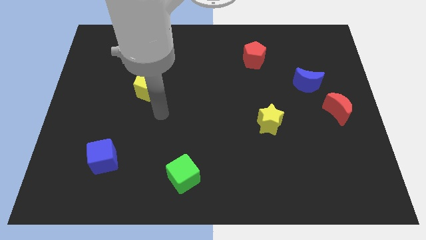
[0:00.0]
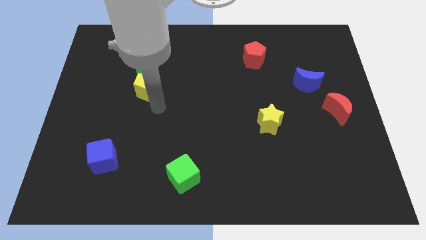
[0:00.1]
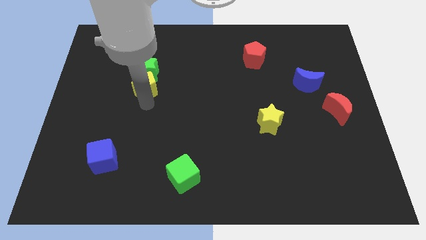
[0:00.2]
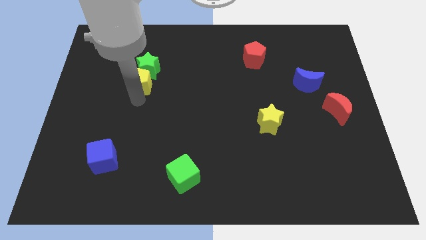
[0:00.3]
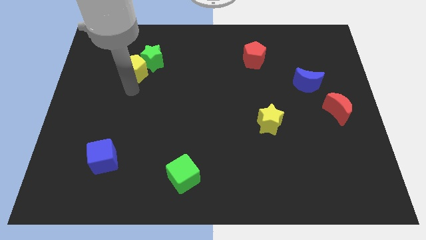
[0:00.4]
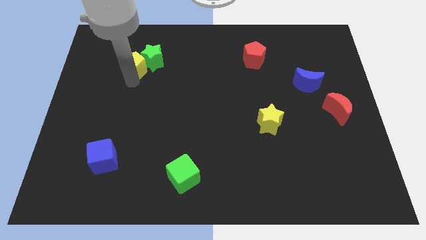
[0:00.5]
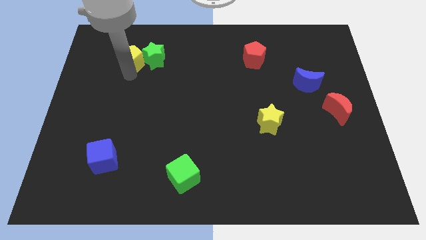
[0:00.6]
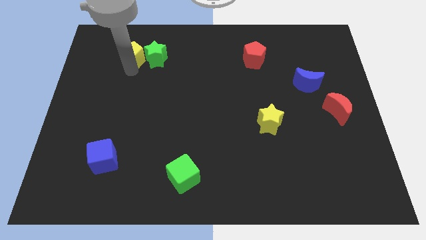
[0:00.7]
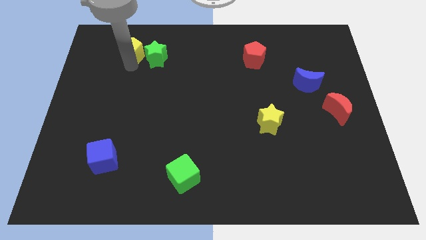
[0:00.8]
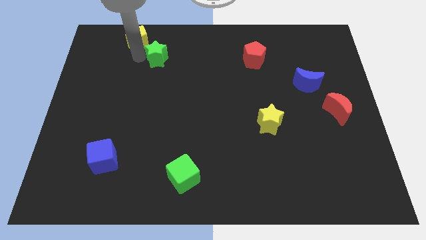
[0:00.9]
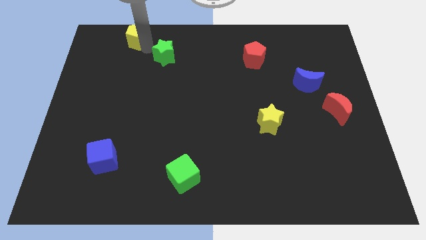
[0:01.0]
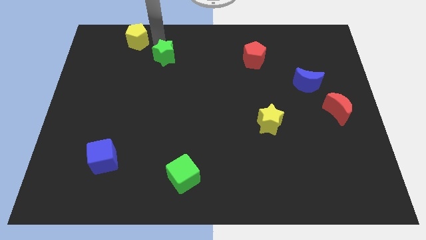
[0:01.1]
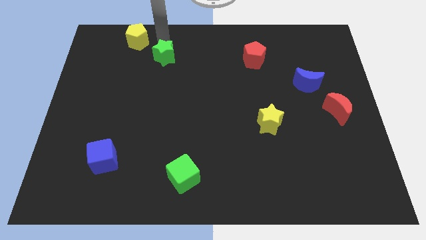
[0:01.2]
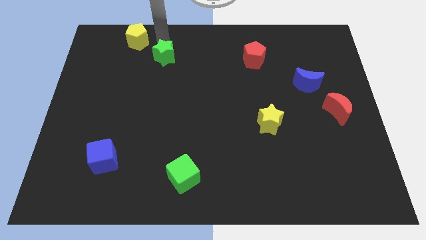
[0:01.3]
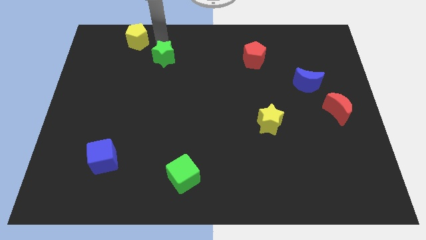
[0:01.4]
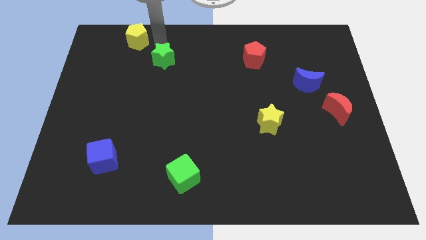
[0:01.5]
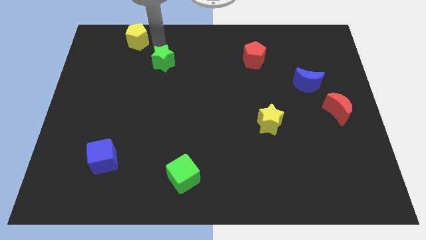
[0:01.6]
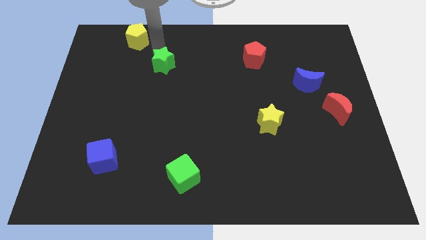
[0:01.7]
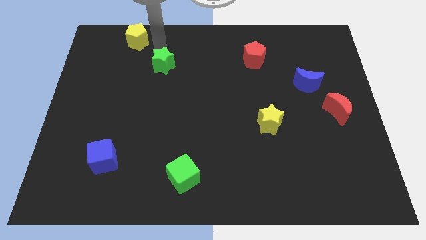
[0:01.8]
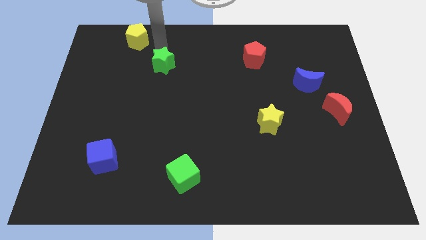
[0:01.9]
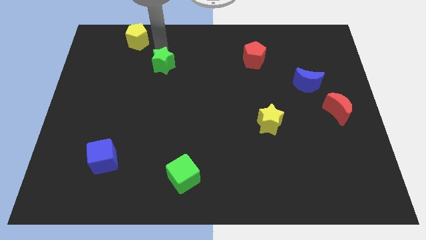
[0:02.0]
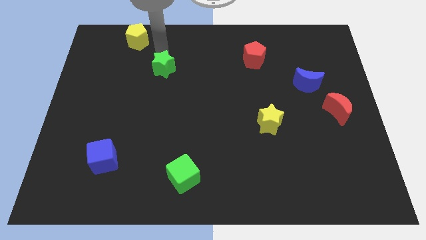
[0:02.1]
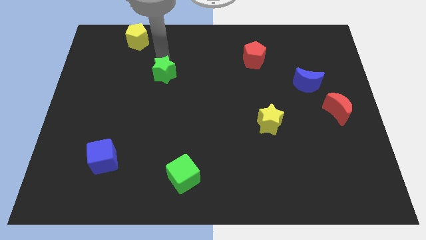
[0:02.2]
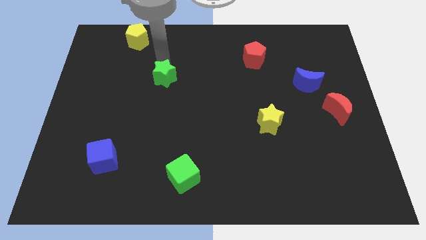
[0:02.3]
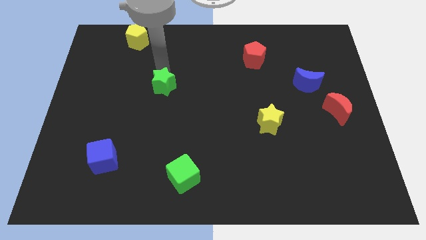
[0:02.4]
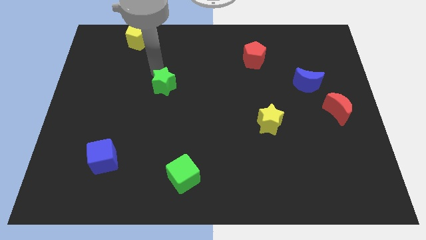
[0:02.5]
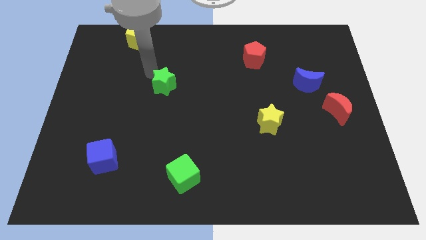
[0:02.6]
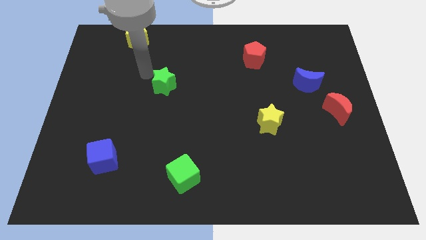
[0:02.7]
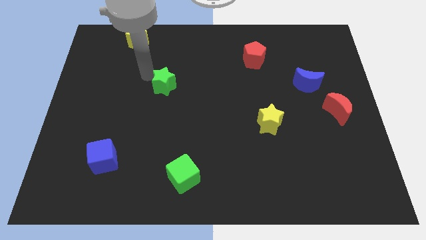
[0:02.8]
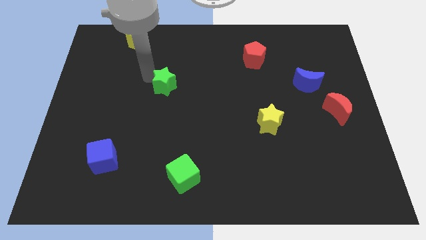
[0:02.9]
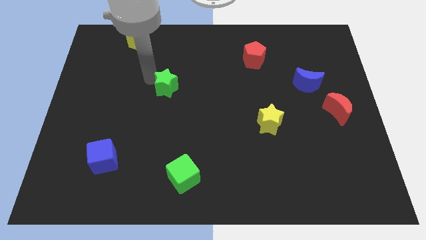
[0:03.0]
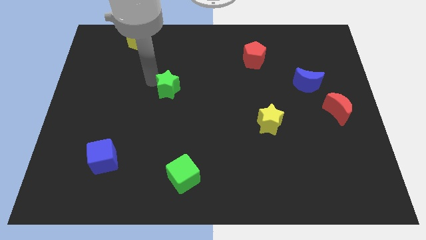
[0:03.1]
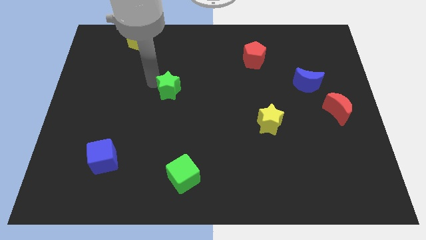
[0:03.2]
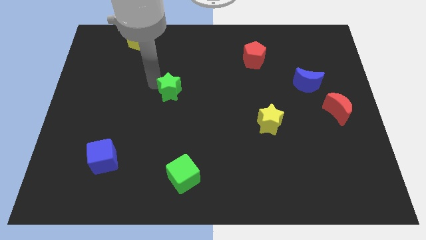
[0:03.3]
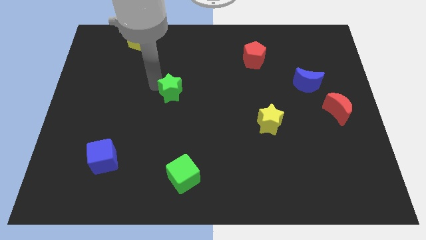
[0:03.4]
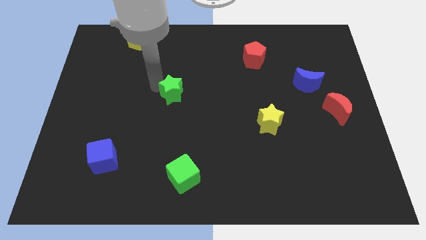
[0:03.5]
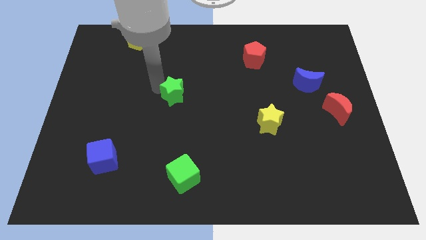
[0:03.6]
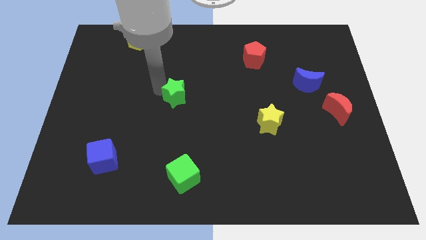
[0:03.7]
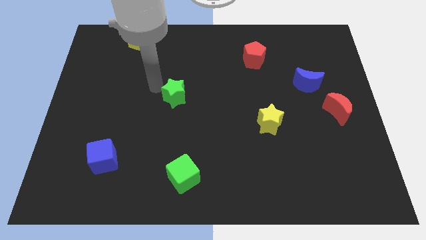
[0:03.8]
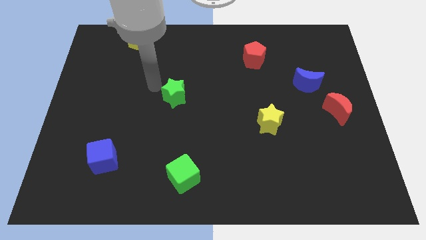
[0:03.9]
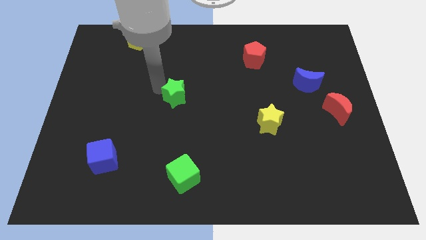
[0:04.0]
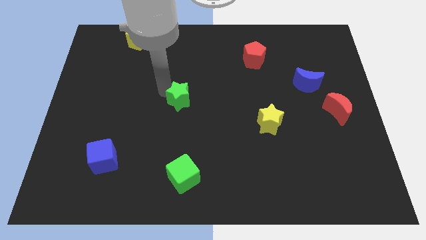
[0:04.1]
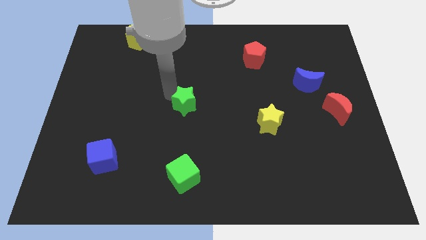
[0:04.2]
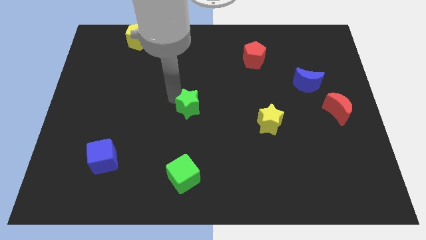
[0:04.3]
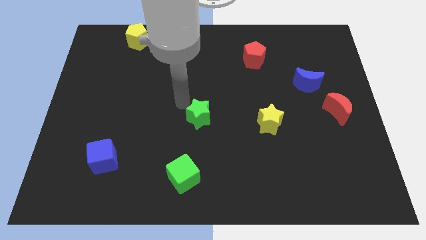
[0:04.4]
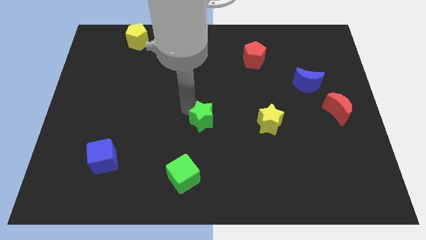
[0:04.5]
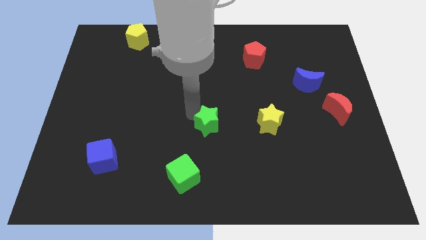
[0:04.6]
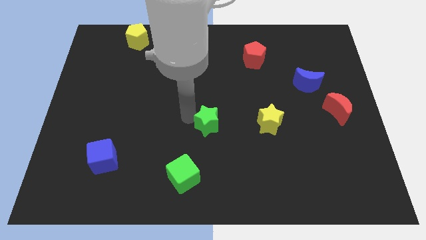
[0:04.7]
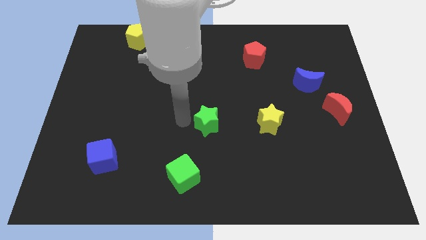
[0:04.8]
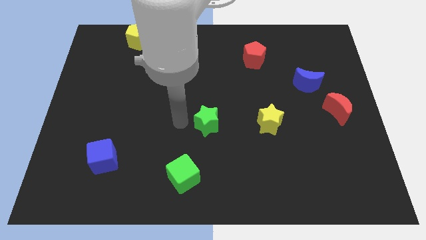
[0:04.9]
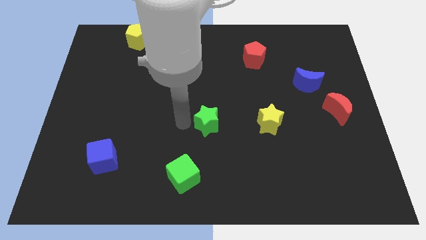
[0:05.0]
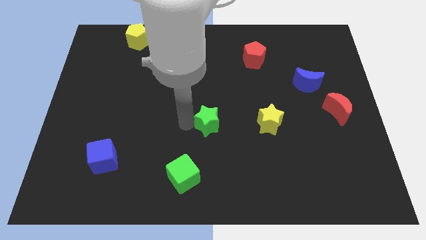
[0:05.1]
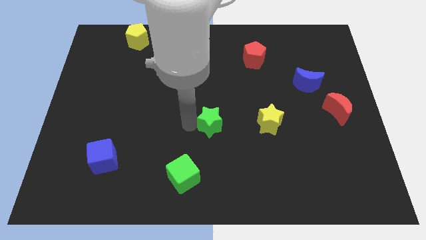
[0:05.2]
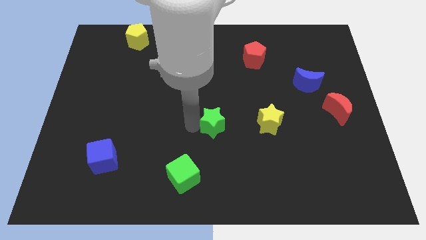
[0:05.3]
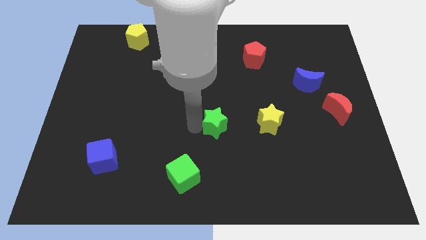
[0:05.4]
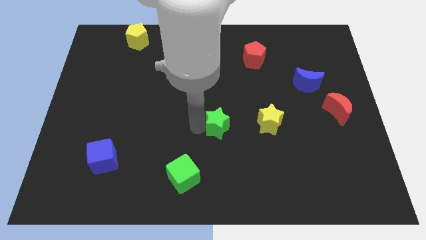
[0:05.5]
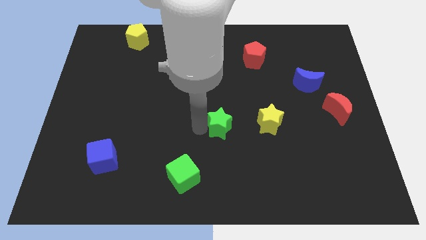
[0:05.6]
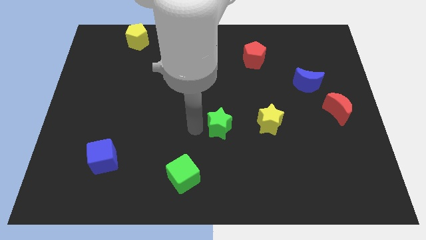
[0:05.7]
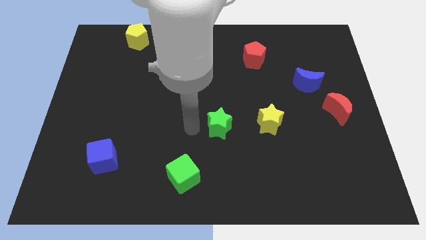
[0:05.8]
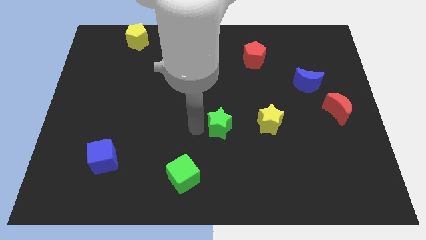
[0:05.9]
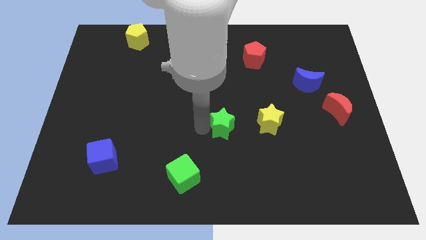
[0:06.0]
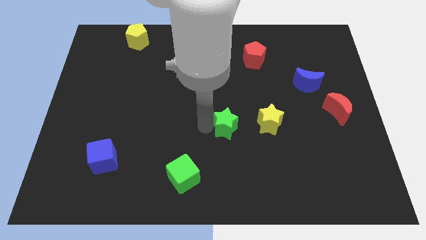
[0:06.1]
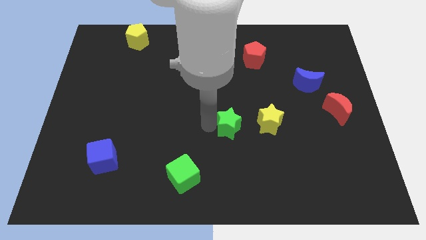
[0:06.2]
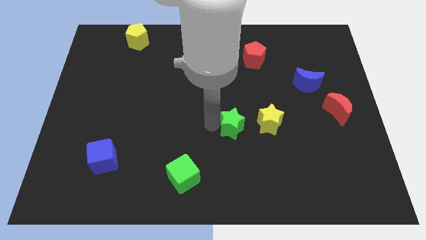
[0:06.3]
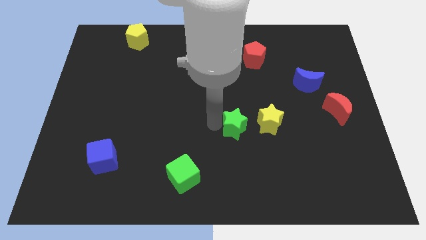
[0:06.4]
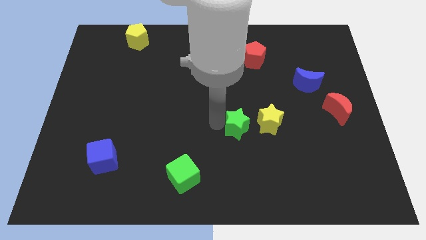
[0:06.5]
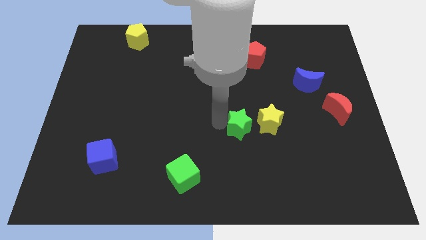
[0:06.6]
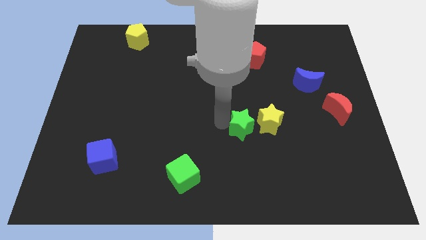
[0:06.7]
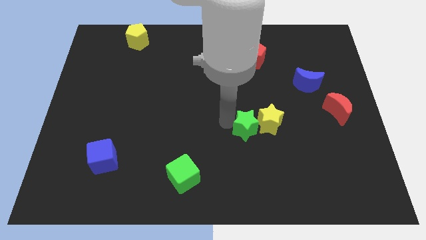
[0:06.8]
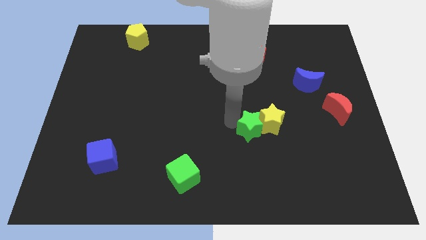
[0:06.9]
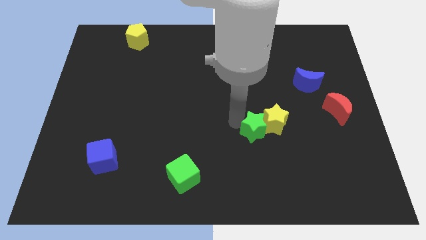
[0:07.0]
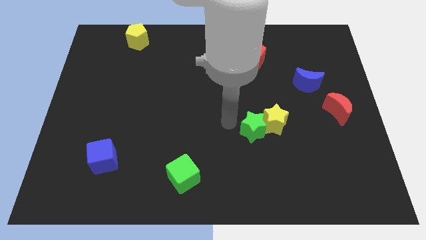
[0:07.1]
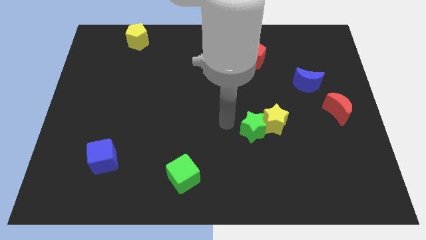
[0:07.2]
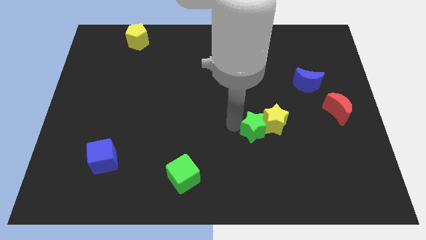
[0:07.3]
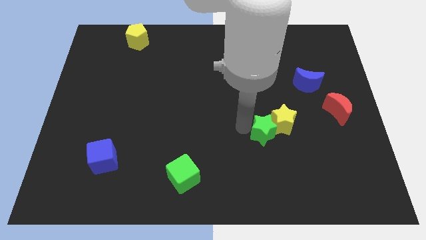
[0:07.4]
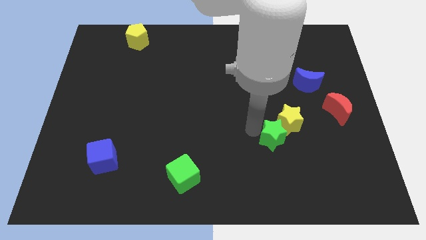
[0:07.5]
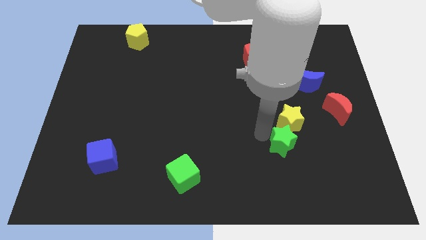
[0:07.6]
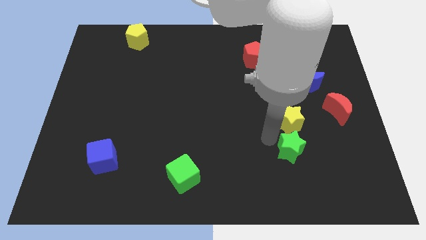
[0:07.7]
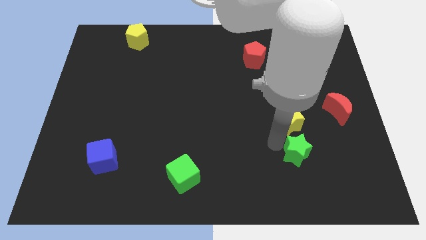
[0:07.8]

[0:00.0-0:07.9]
move the green star diagonally down and to the right of the yellow star

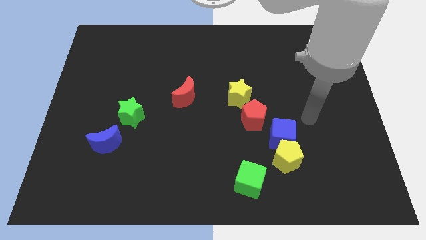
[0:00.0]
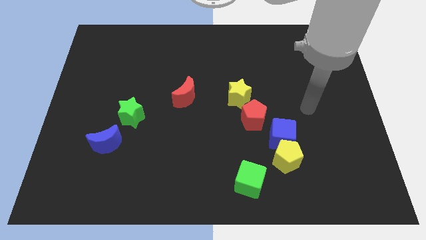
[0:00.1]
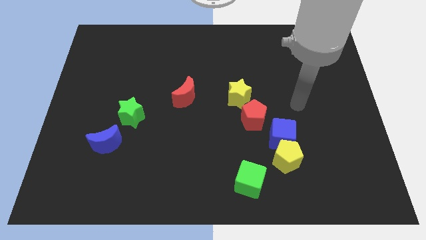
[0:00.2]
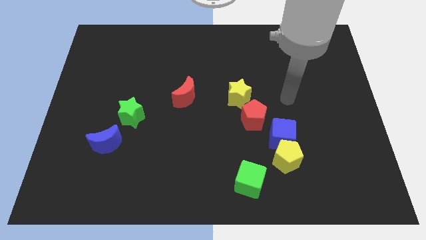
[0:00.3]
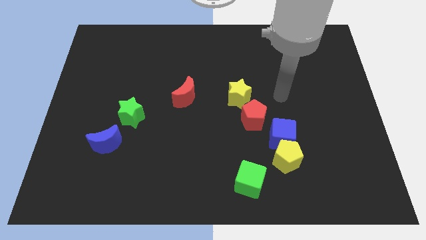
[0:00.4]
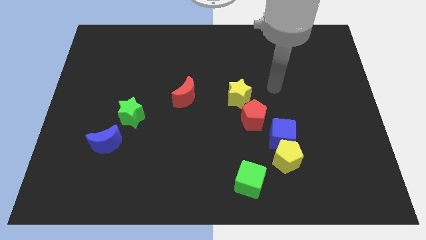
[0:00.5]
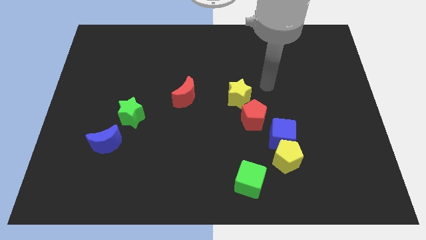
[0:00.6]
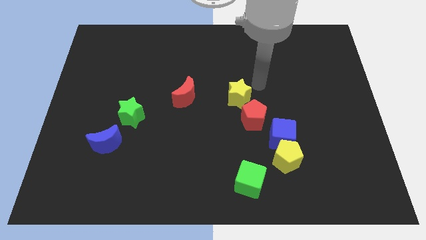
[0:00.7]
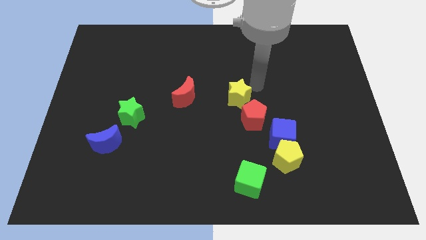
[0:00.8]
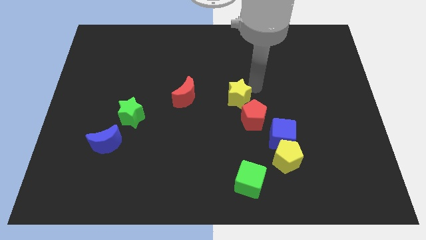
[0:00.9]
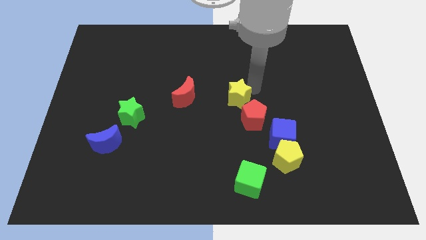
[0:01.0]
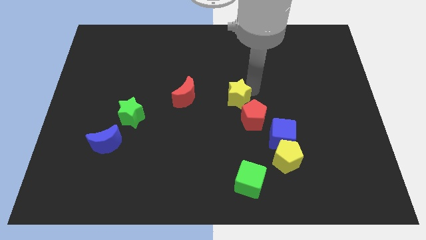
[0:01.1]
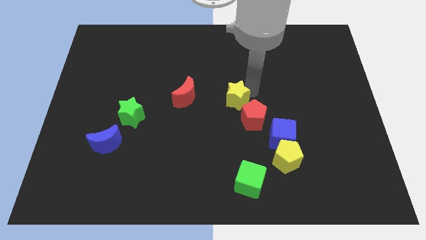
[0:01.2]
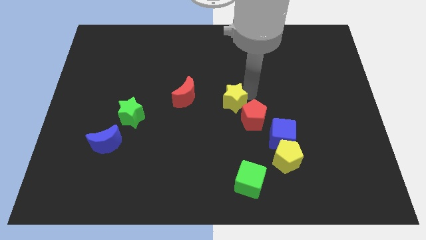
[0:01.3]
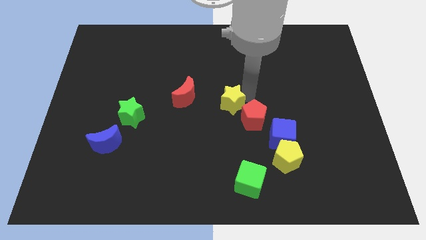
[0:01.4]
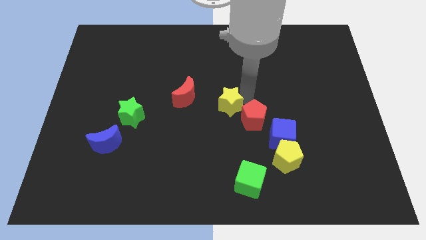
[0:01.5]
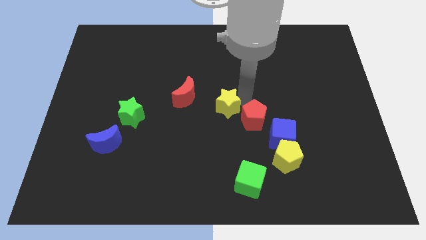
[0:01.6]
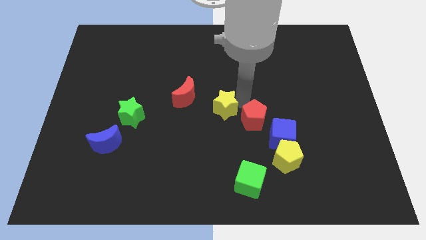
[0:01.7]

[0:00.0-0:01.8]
slide the yellow star to the bottom right of the red moon
